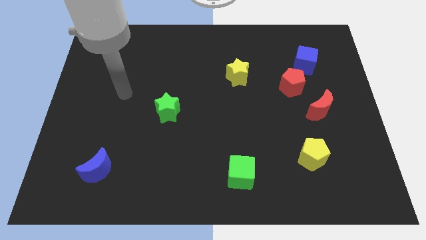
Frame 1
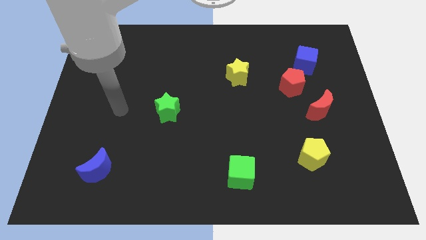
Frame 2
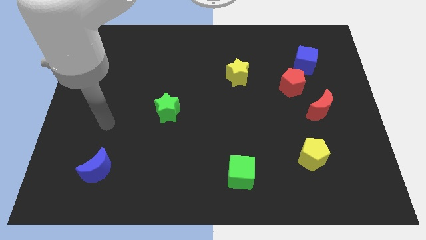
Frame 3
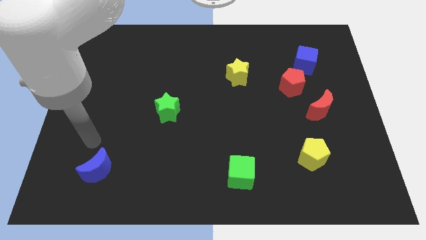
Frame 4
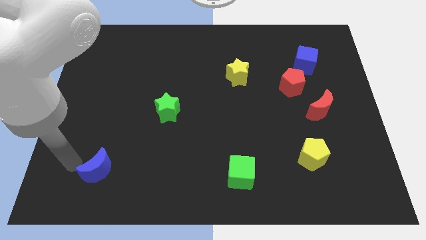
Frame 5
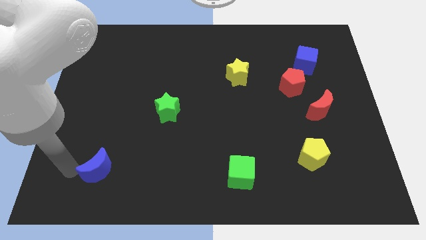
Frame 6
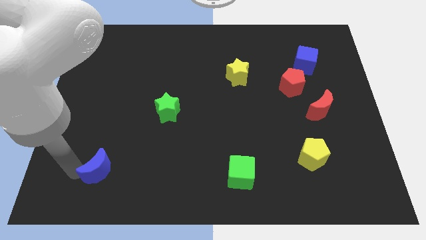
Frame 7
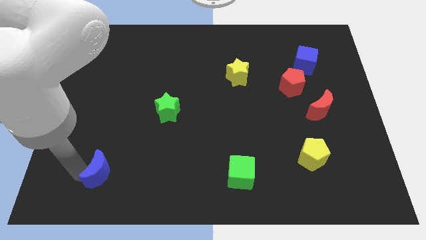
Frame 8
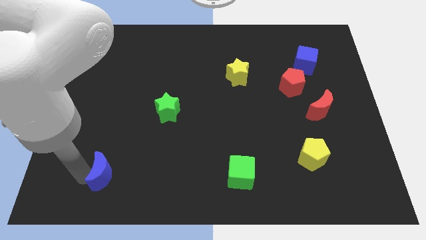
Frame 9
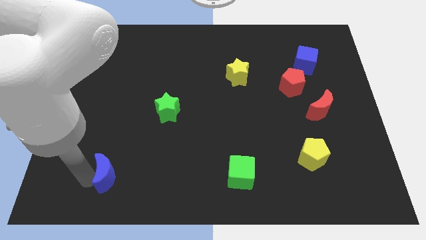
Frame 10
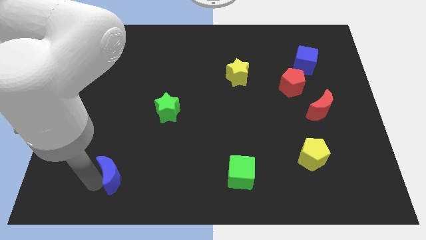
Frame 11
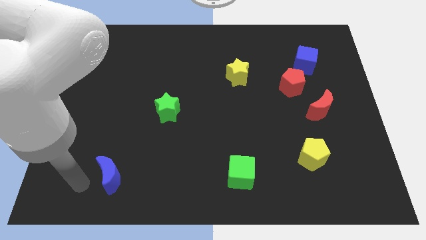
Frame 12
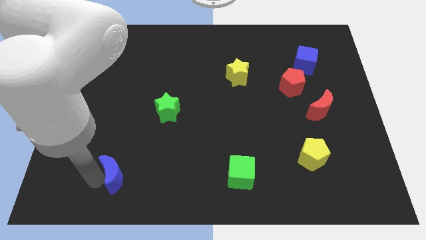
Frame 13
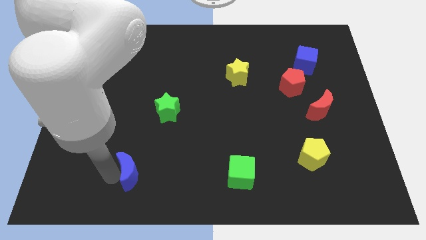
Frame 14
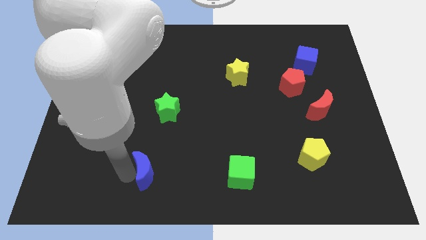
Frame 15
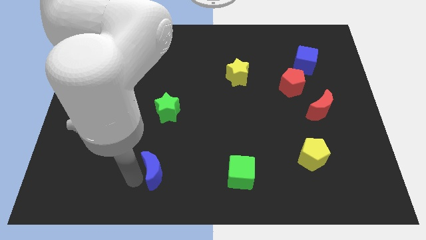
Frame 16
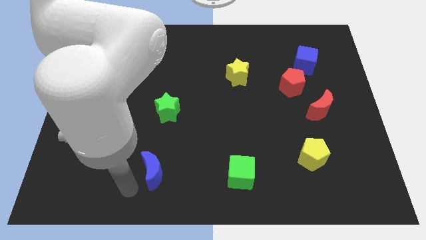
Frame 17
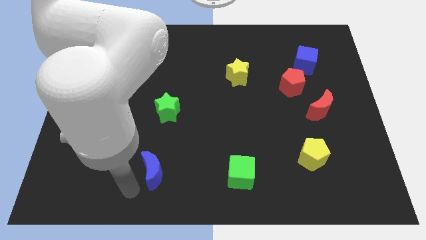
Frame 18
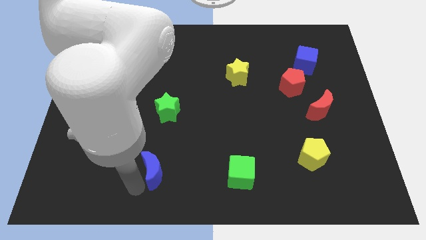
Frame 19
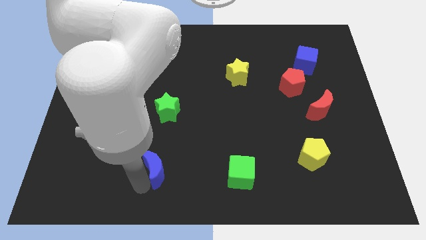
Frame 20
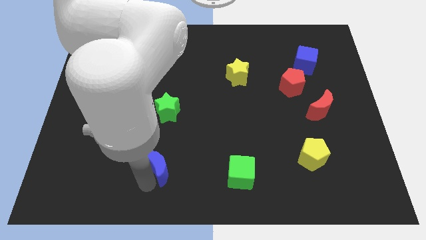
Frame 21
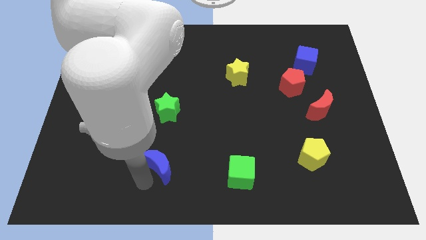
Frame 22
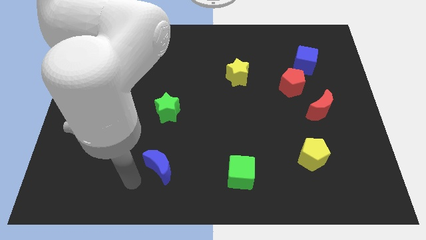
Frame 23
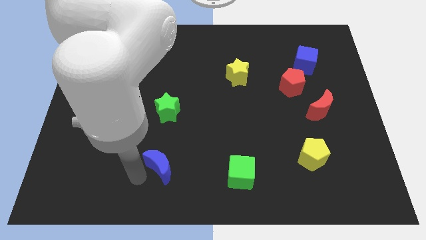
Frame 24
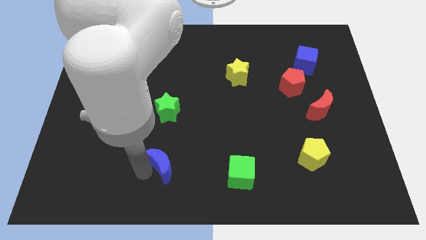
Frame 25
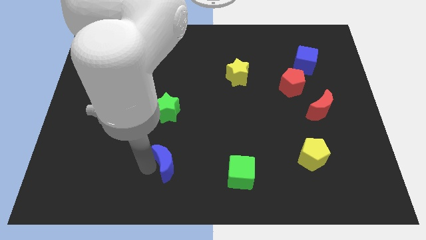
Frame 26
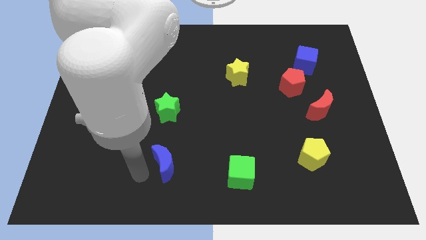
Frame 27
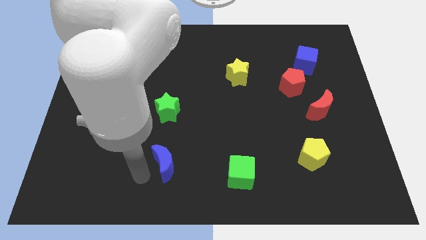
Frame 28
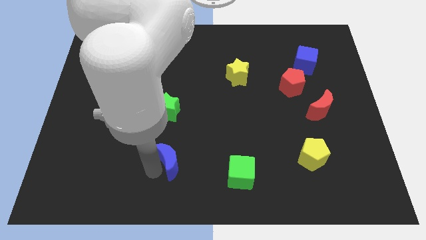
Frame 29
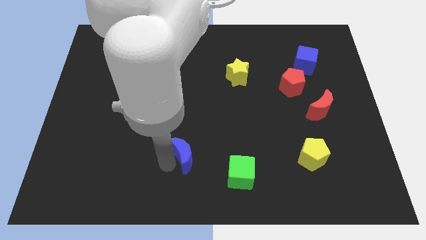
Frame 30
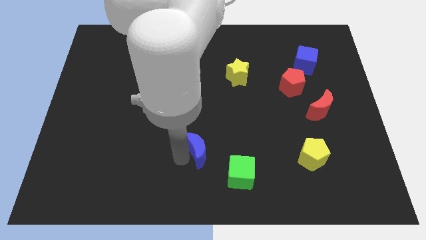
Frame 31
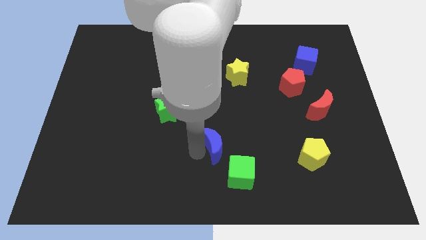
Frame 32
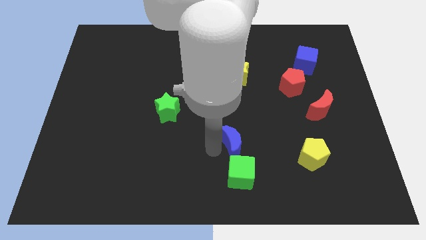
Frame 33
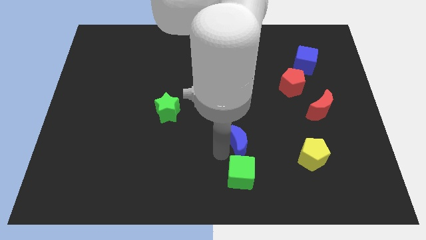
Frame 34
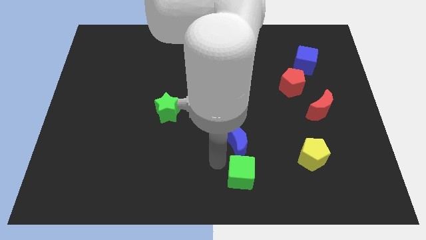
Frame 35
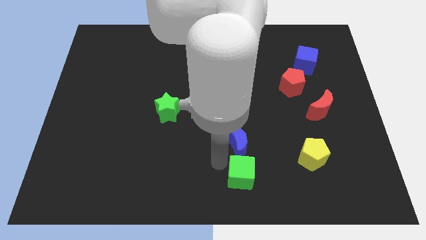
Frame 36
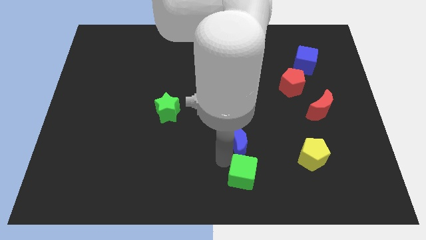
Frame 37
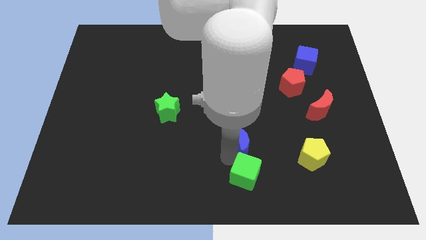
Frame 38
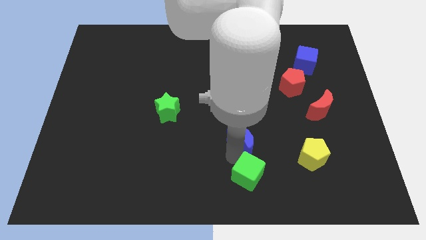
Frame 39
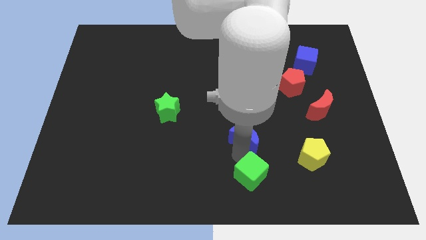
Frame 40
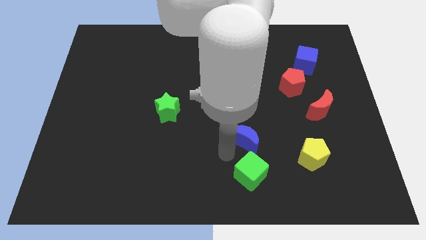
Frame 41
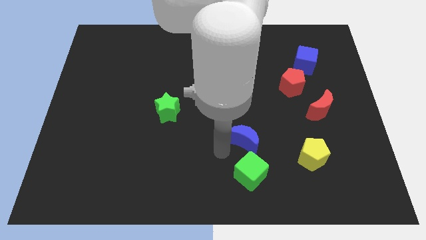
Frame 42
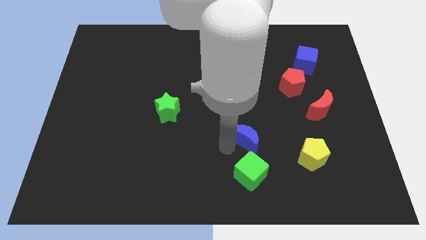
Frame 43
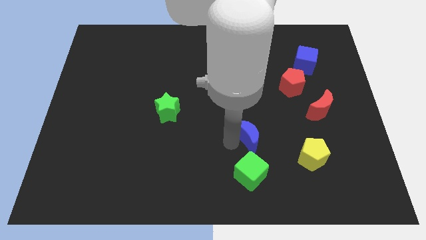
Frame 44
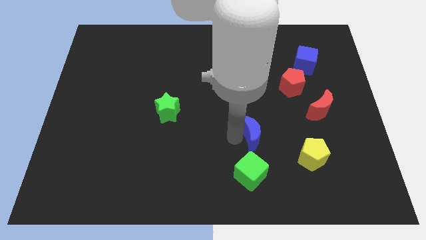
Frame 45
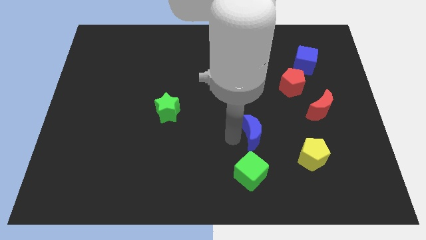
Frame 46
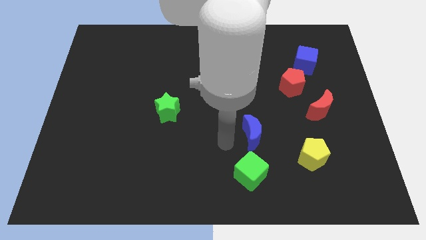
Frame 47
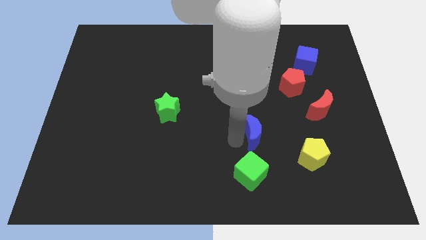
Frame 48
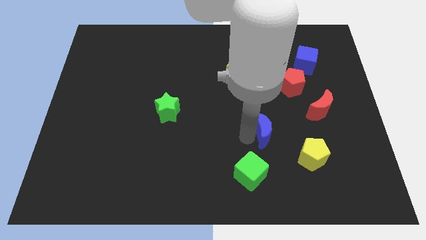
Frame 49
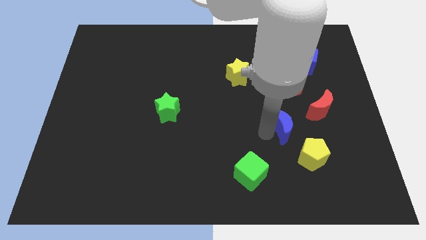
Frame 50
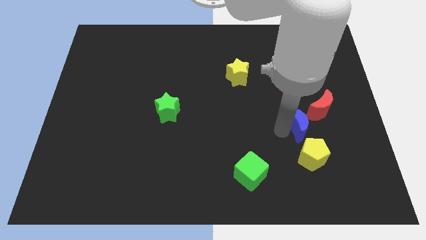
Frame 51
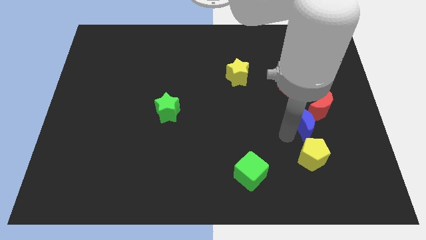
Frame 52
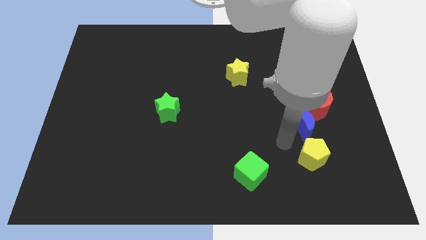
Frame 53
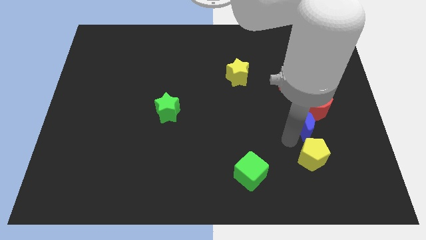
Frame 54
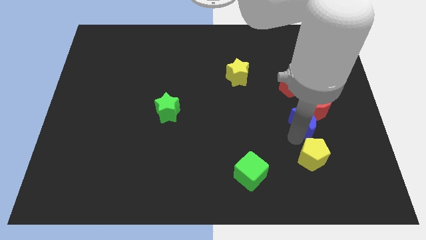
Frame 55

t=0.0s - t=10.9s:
slide the blue moon to the red moon

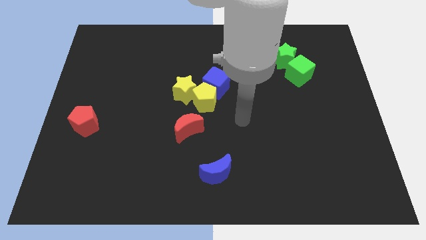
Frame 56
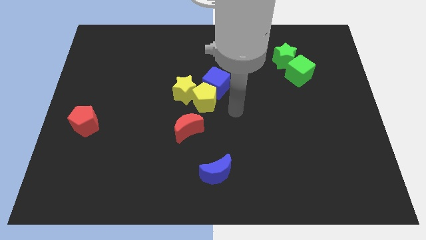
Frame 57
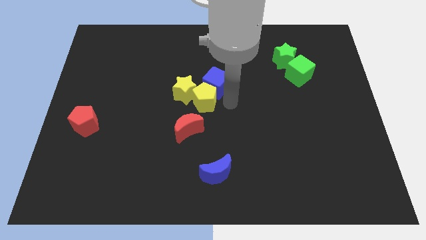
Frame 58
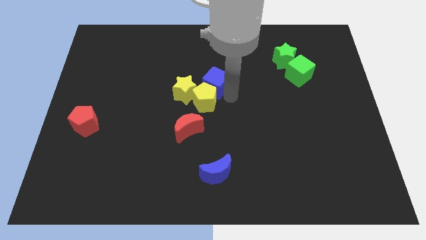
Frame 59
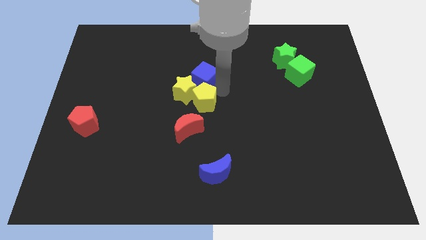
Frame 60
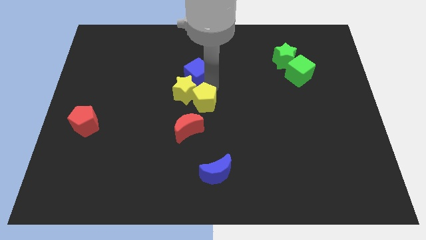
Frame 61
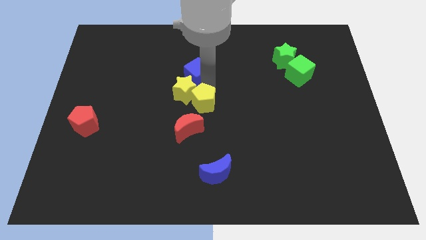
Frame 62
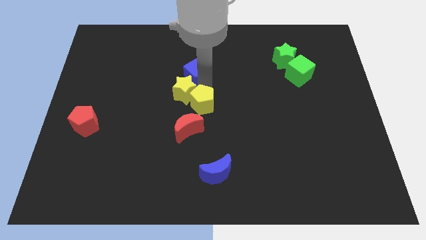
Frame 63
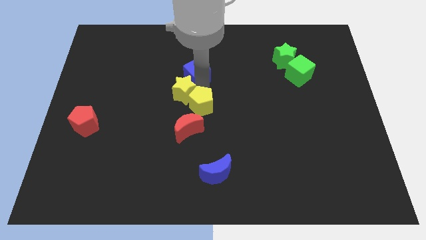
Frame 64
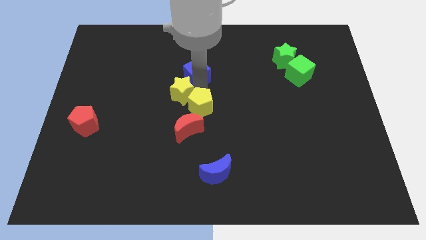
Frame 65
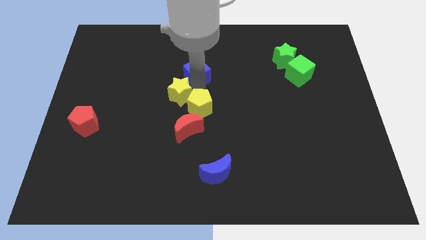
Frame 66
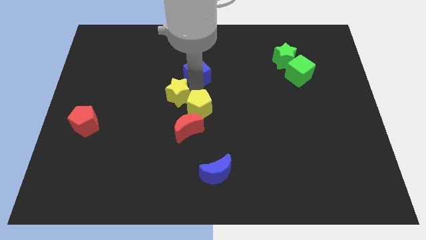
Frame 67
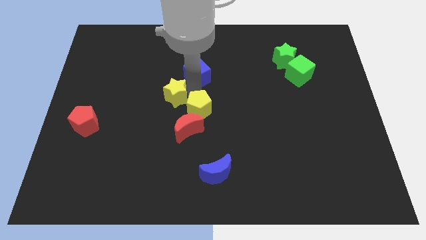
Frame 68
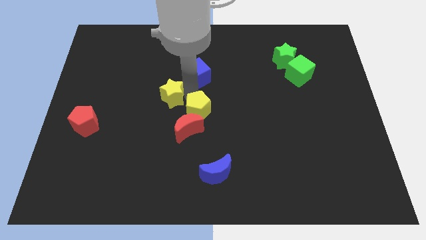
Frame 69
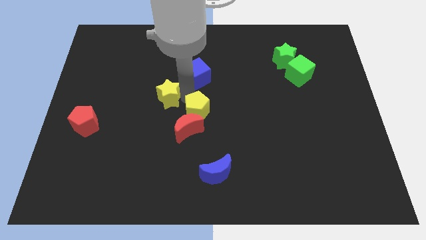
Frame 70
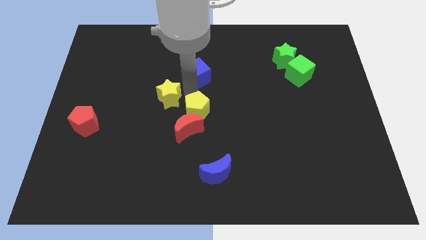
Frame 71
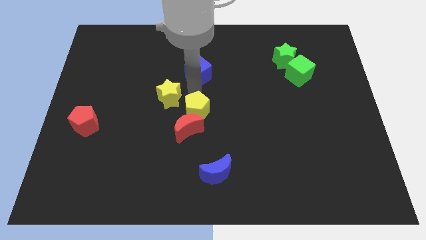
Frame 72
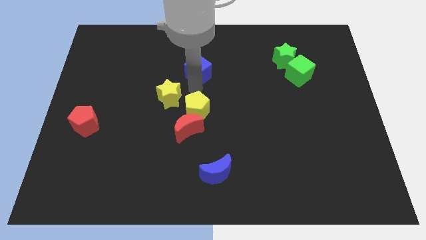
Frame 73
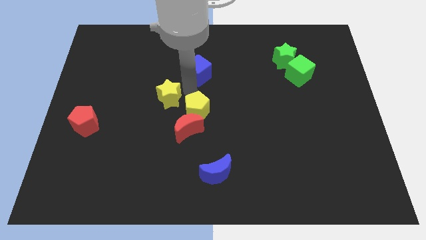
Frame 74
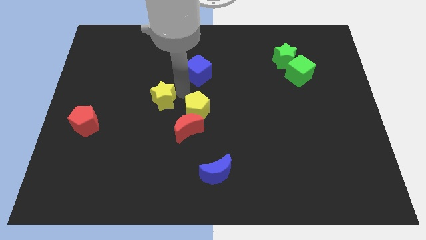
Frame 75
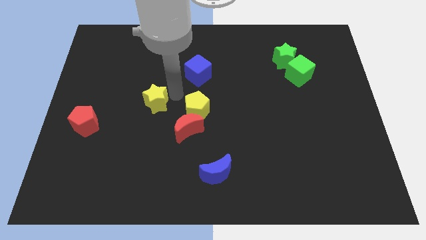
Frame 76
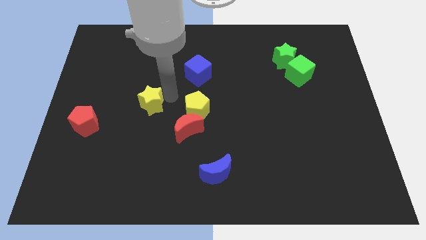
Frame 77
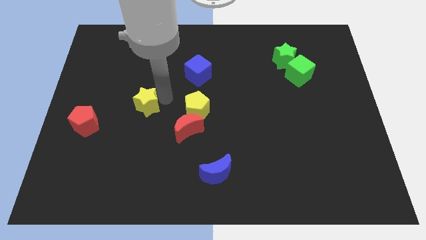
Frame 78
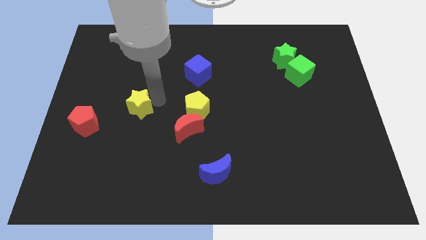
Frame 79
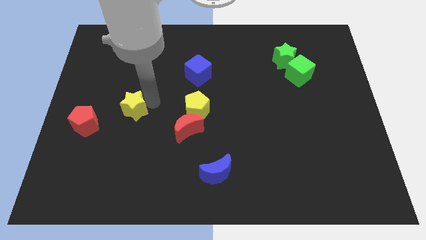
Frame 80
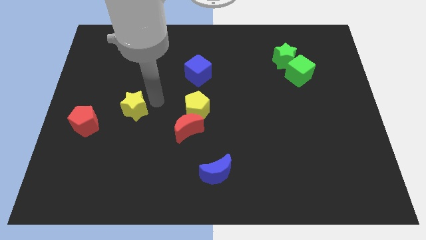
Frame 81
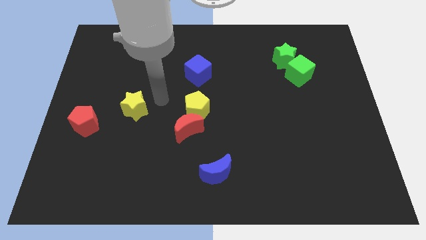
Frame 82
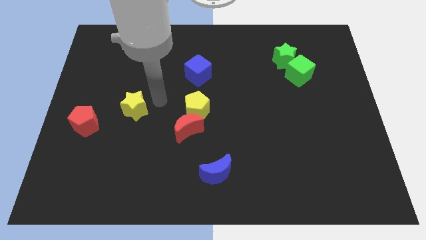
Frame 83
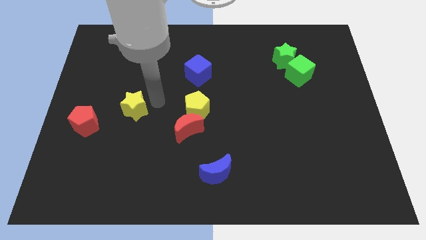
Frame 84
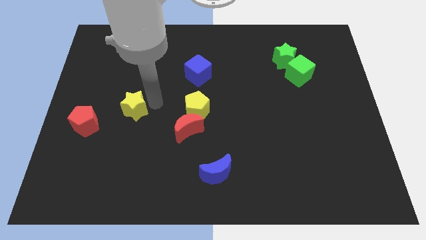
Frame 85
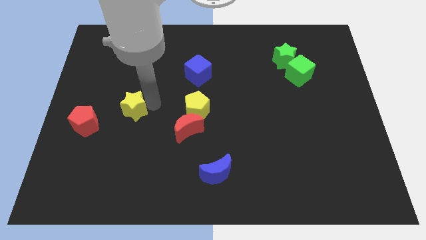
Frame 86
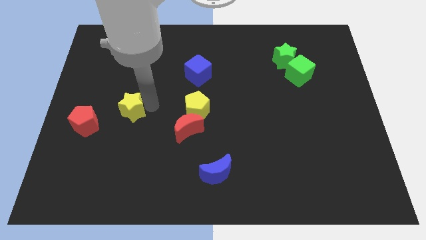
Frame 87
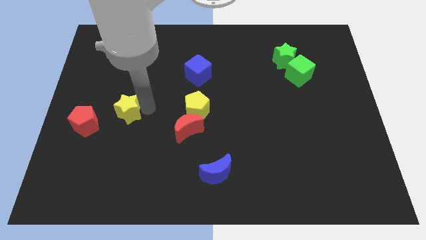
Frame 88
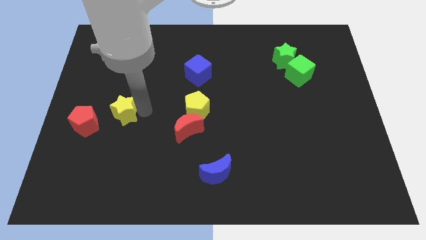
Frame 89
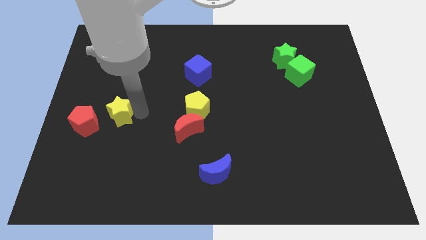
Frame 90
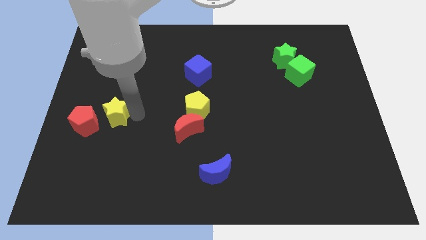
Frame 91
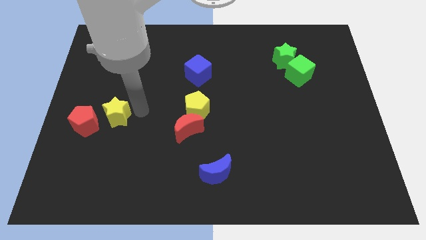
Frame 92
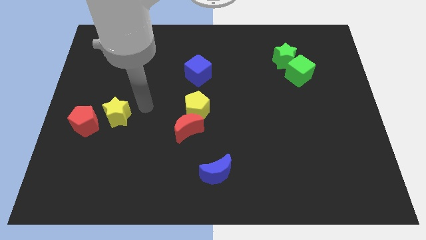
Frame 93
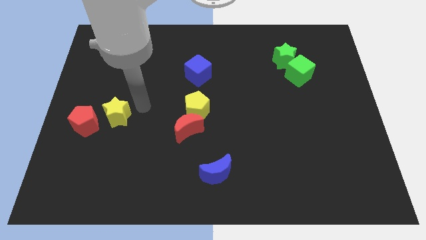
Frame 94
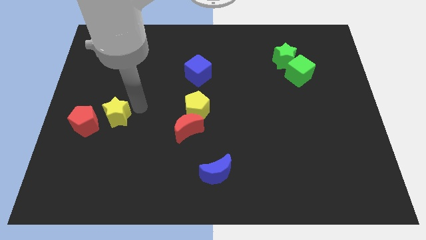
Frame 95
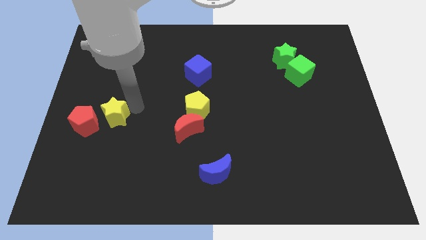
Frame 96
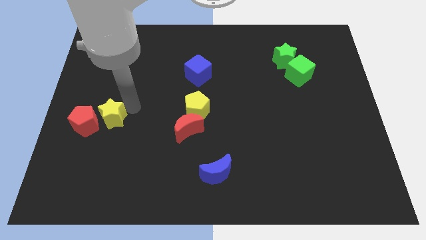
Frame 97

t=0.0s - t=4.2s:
slide the yellow star to the red pentagon
